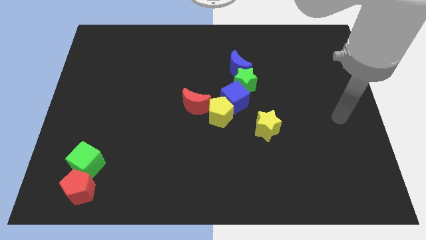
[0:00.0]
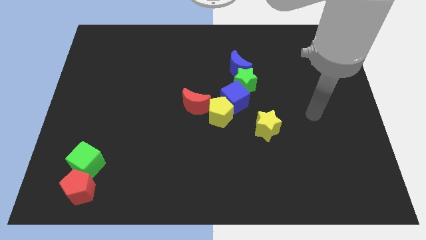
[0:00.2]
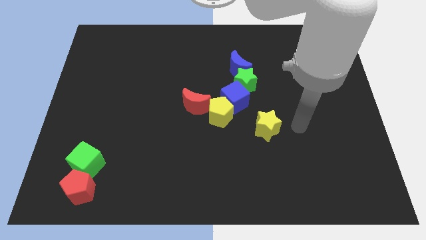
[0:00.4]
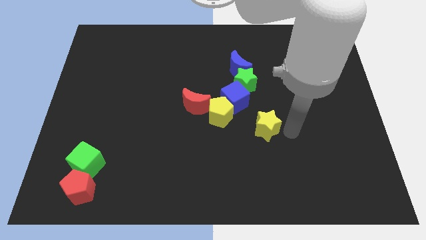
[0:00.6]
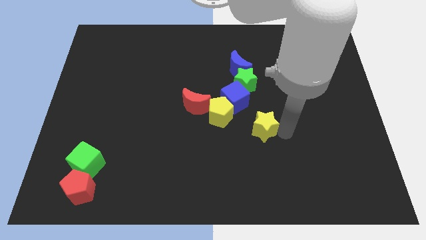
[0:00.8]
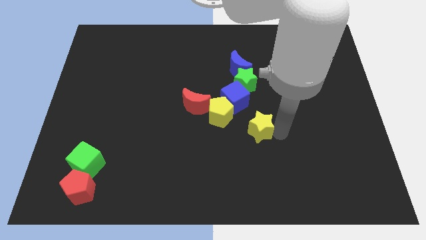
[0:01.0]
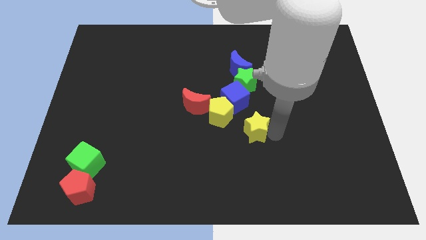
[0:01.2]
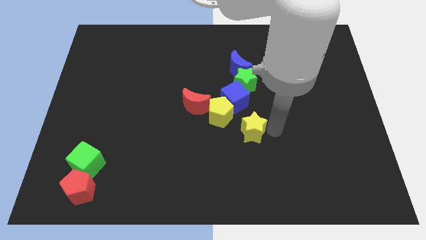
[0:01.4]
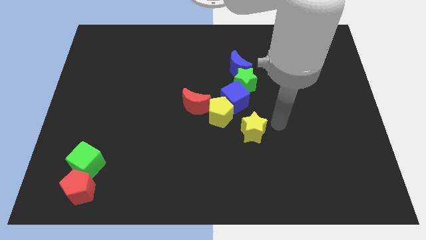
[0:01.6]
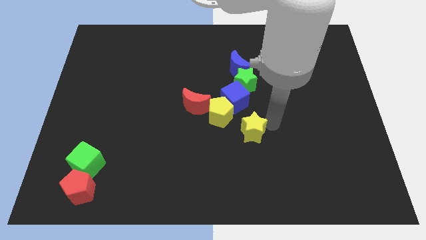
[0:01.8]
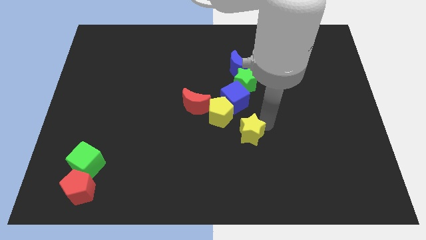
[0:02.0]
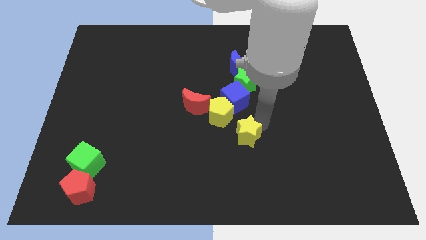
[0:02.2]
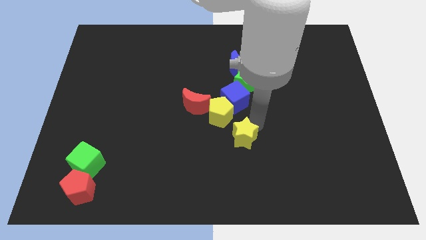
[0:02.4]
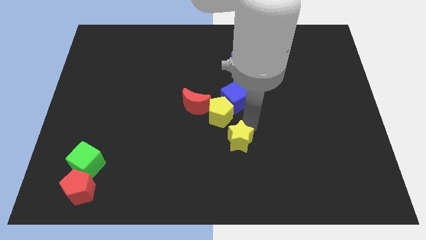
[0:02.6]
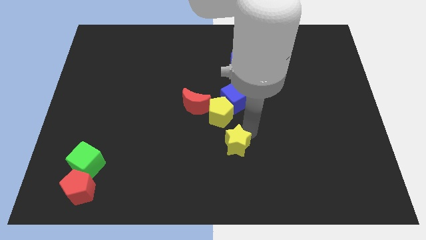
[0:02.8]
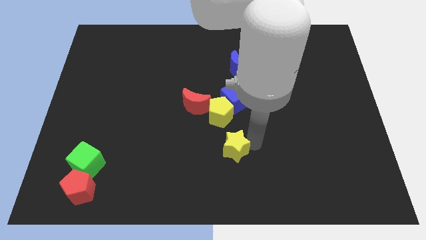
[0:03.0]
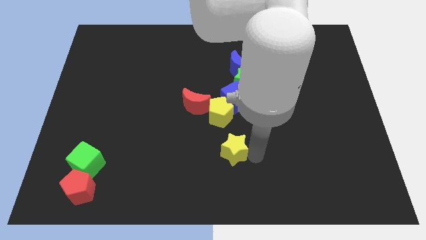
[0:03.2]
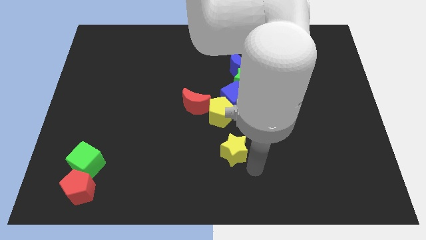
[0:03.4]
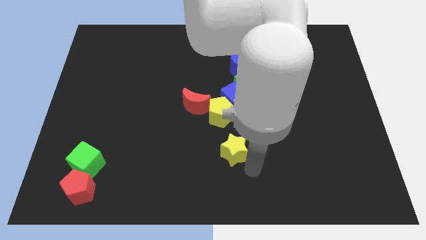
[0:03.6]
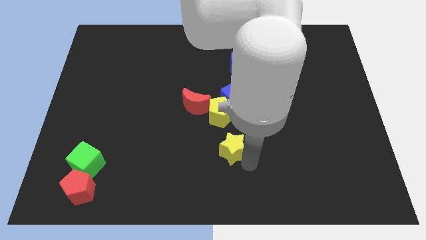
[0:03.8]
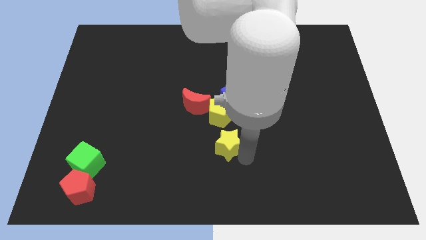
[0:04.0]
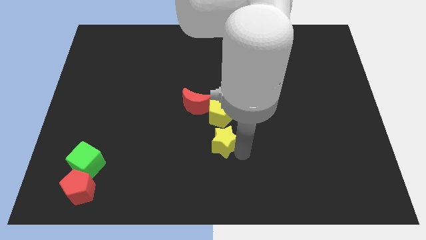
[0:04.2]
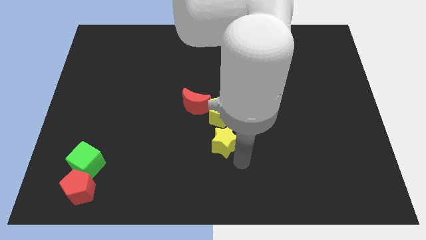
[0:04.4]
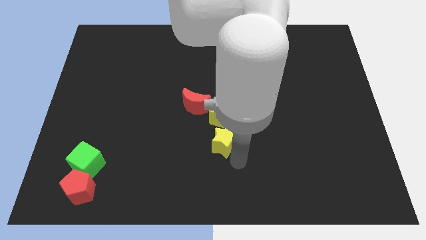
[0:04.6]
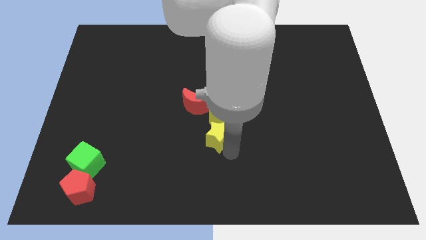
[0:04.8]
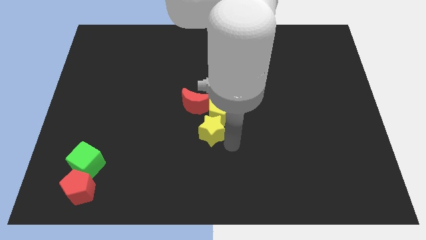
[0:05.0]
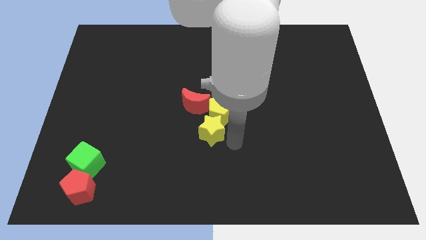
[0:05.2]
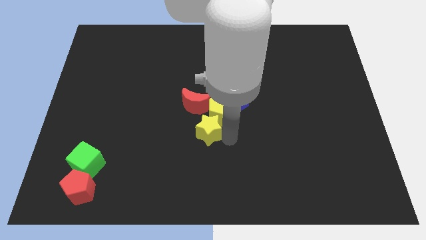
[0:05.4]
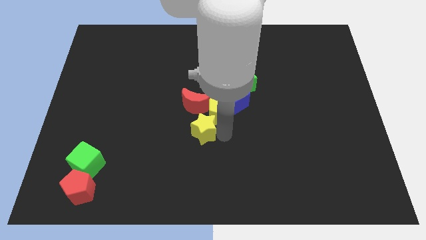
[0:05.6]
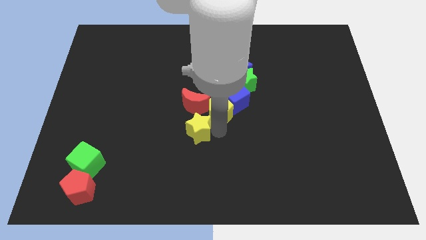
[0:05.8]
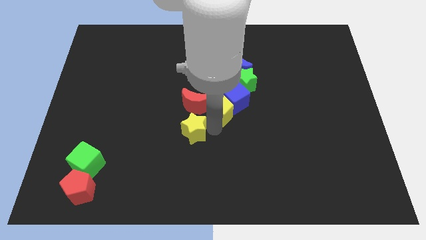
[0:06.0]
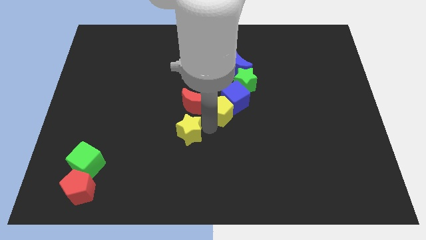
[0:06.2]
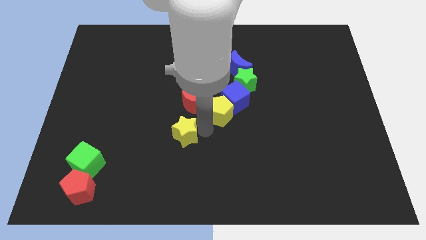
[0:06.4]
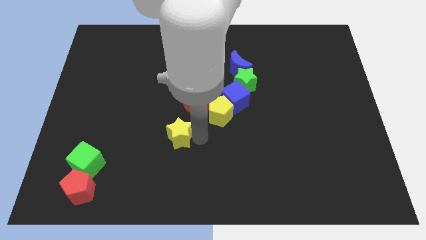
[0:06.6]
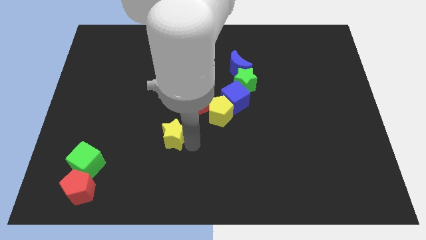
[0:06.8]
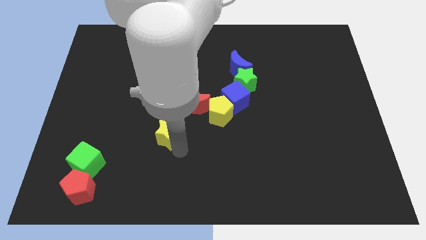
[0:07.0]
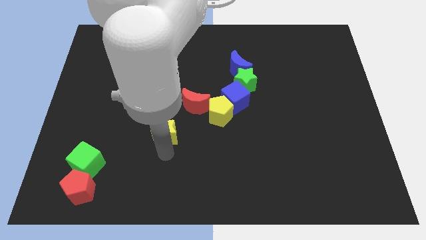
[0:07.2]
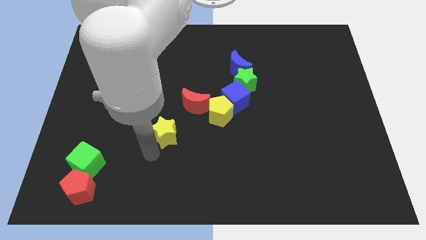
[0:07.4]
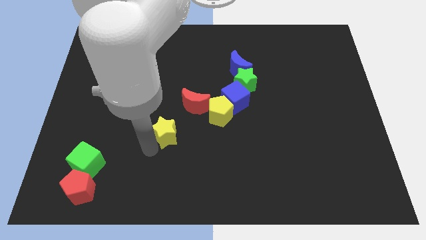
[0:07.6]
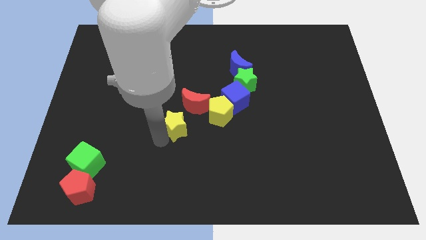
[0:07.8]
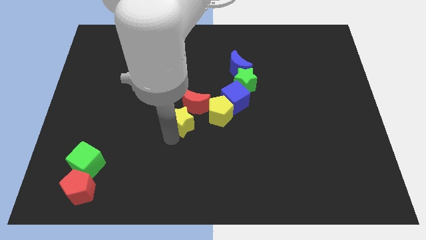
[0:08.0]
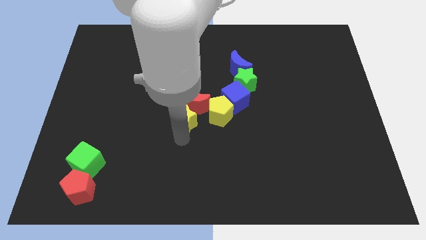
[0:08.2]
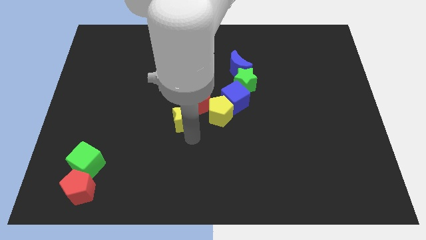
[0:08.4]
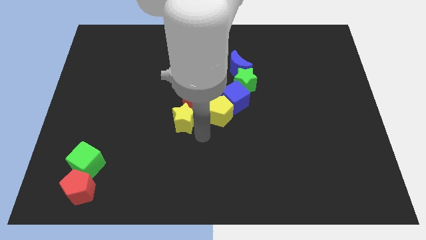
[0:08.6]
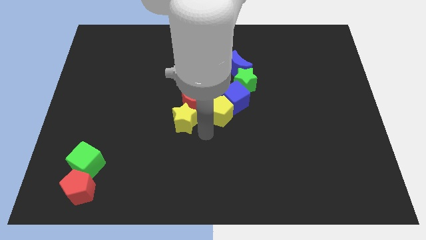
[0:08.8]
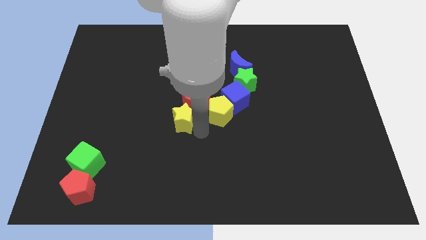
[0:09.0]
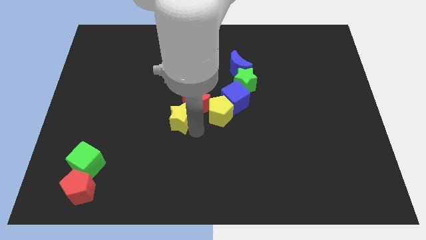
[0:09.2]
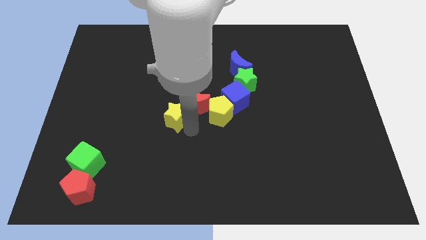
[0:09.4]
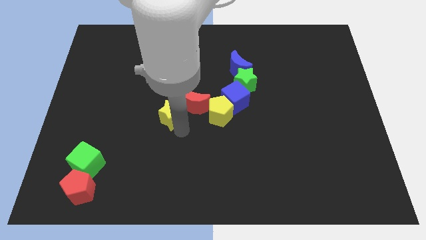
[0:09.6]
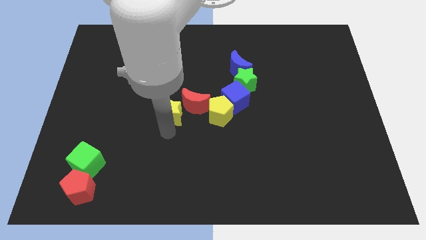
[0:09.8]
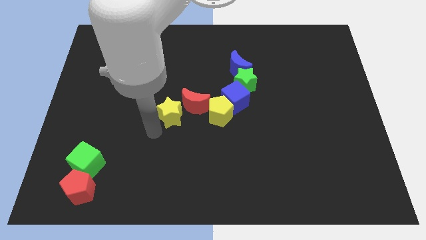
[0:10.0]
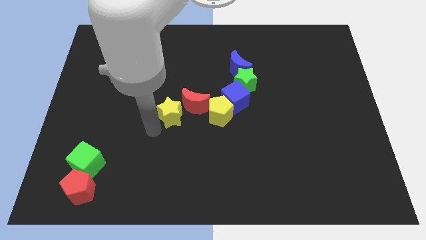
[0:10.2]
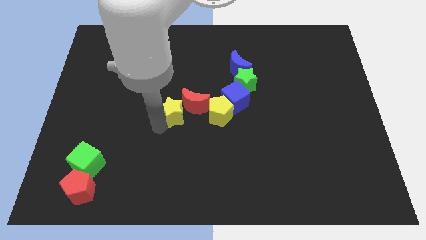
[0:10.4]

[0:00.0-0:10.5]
slide the yellow star just left of the blue cube

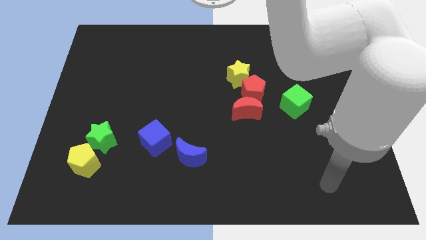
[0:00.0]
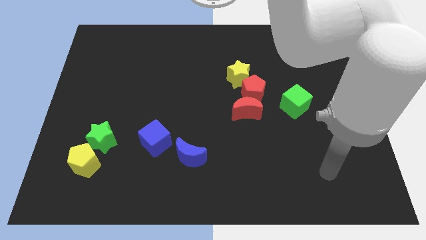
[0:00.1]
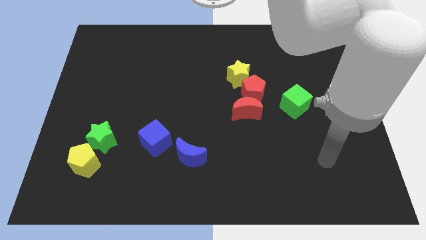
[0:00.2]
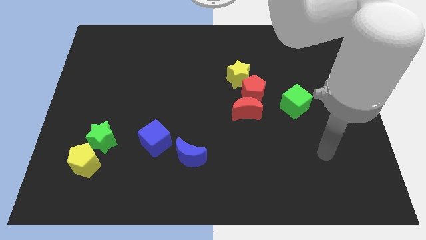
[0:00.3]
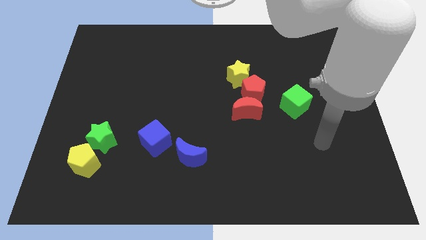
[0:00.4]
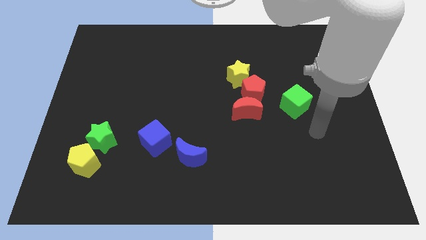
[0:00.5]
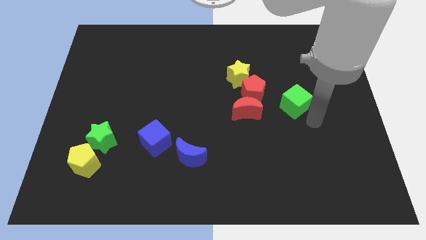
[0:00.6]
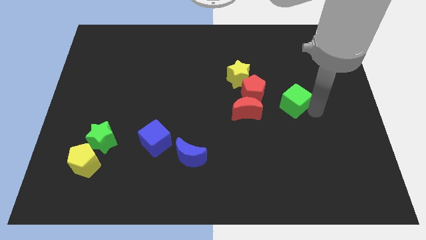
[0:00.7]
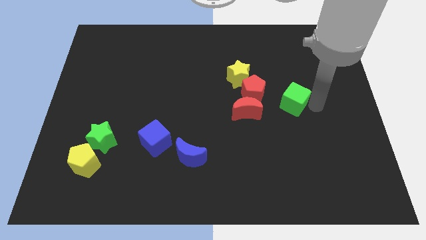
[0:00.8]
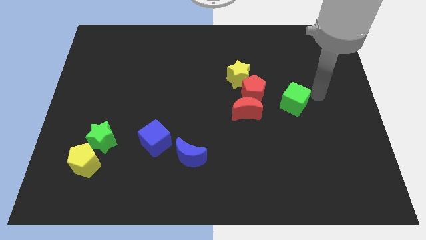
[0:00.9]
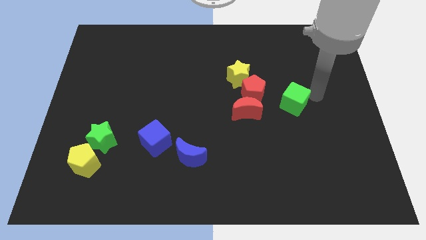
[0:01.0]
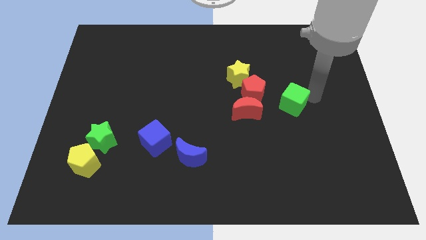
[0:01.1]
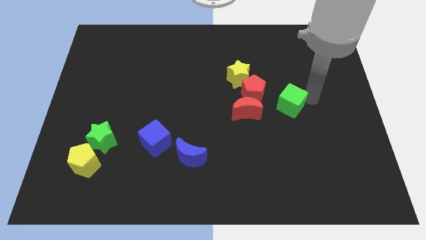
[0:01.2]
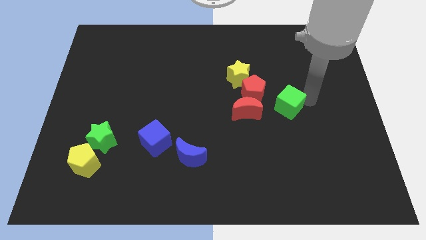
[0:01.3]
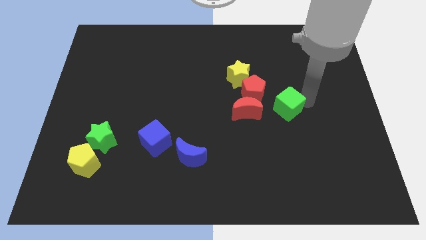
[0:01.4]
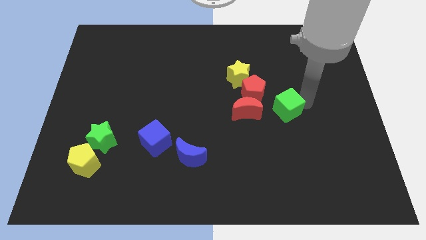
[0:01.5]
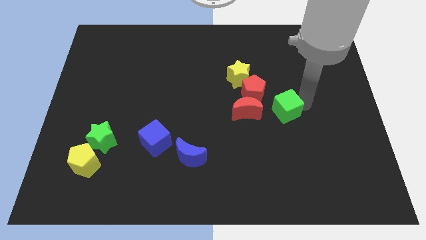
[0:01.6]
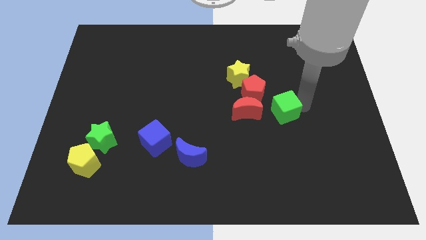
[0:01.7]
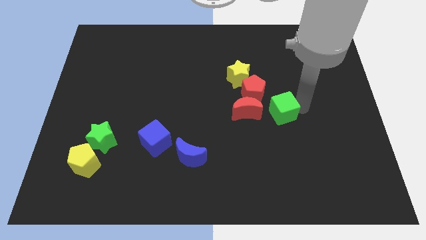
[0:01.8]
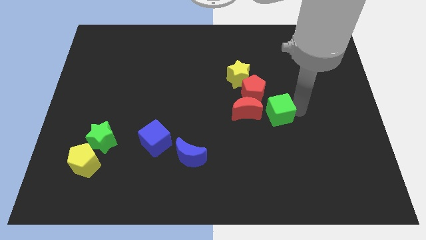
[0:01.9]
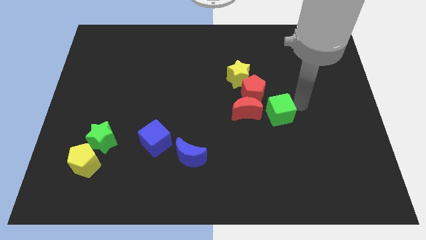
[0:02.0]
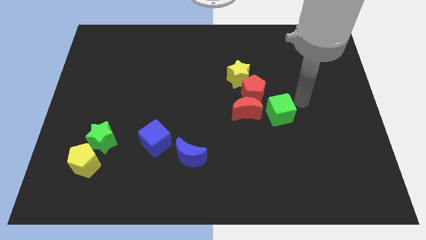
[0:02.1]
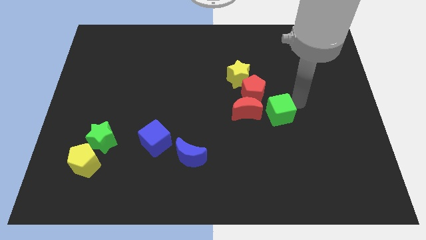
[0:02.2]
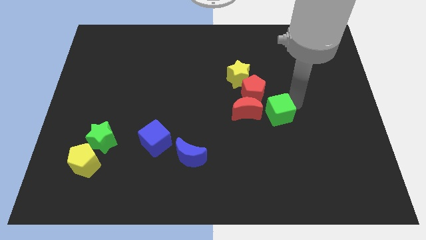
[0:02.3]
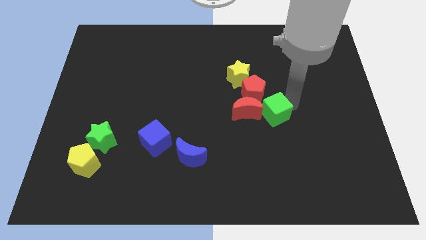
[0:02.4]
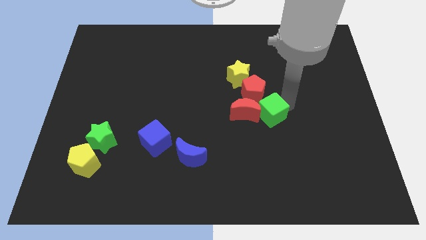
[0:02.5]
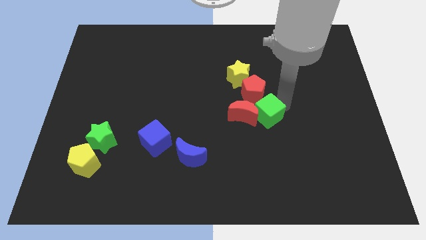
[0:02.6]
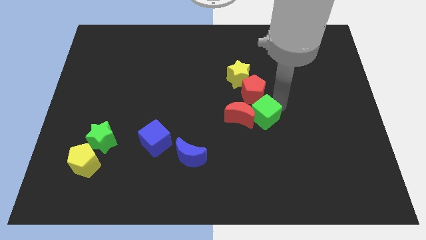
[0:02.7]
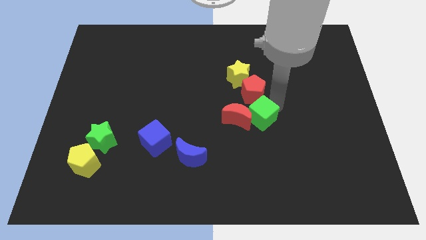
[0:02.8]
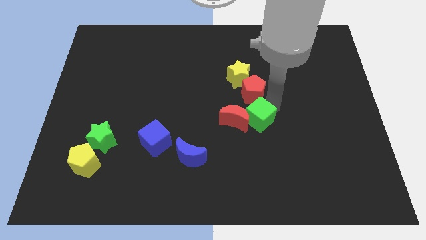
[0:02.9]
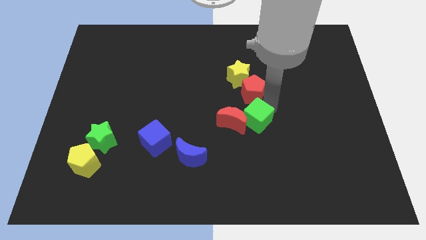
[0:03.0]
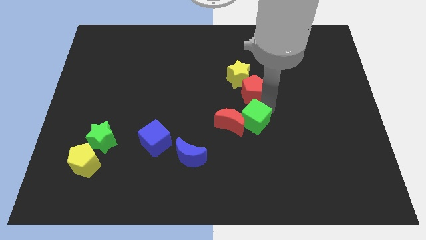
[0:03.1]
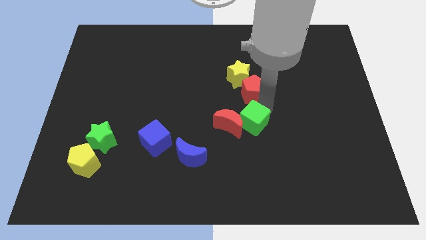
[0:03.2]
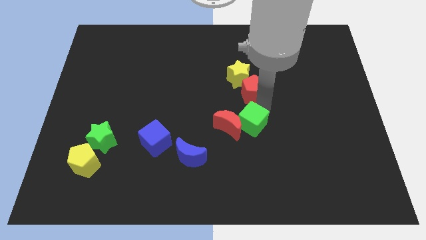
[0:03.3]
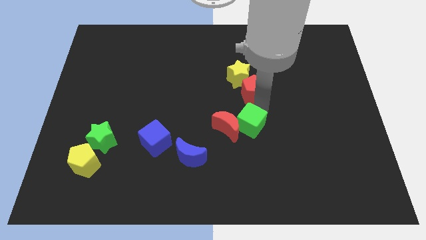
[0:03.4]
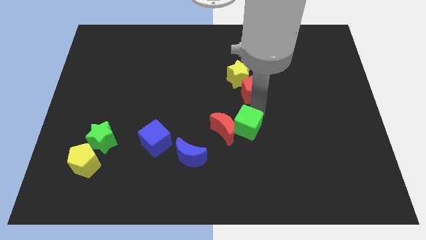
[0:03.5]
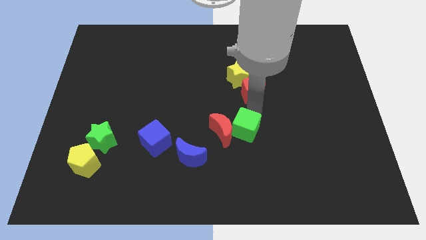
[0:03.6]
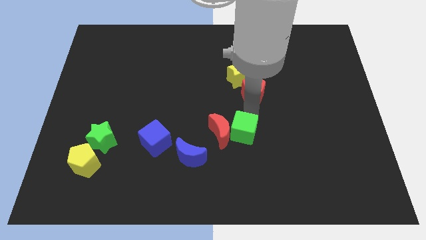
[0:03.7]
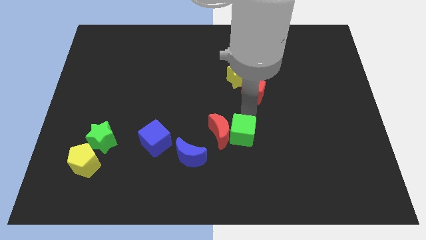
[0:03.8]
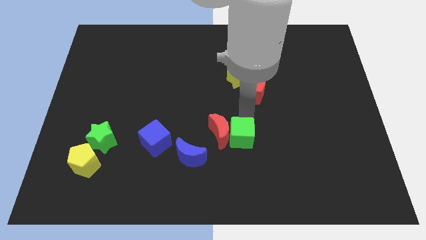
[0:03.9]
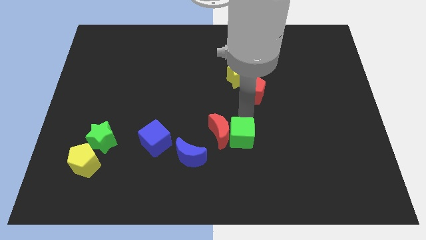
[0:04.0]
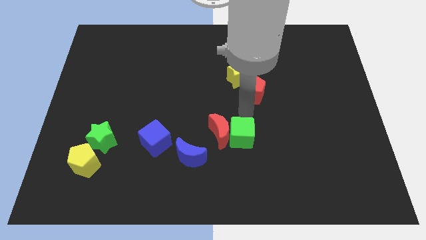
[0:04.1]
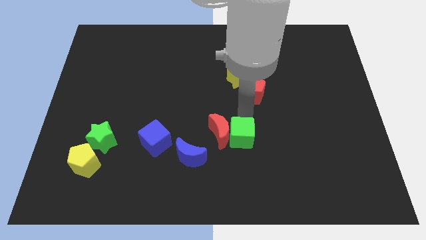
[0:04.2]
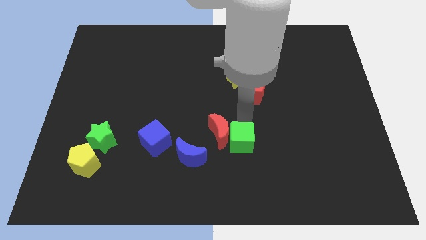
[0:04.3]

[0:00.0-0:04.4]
slide the green cube just right of the blue moon
